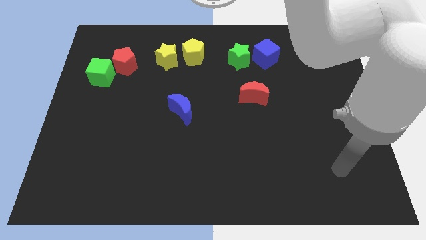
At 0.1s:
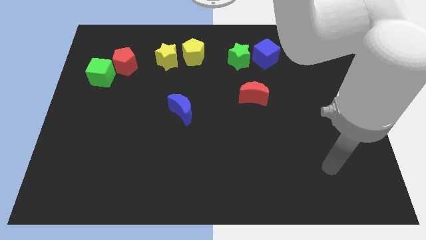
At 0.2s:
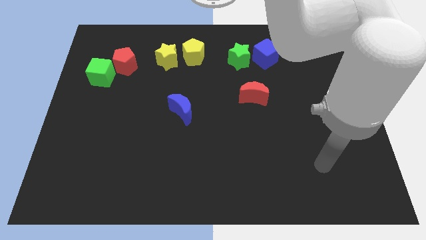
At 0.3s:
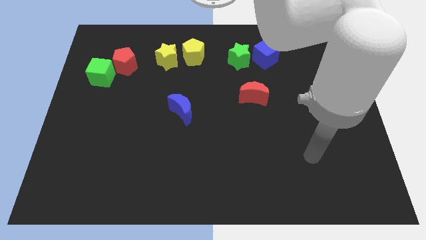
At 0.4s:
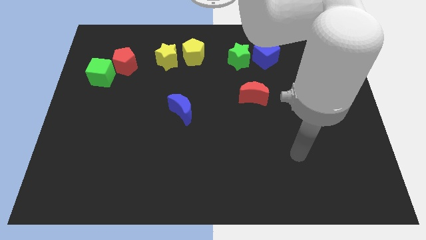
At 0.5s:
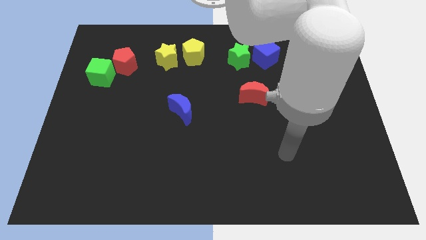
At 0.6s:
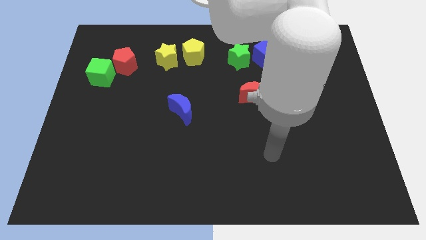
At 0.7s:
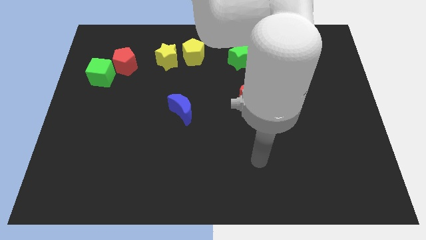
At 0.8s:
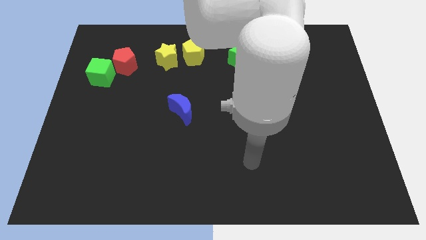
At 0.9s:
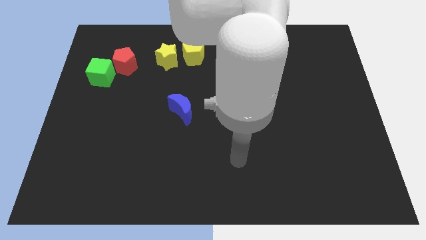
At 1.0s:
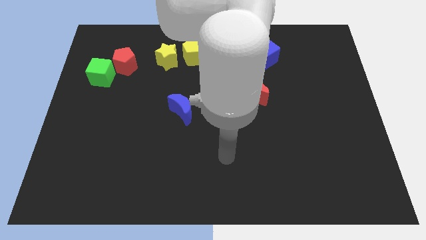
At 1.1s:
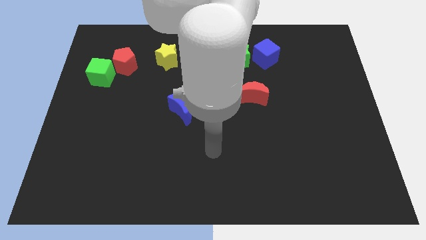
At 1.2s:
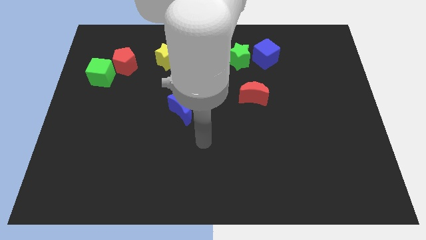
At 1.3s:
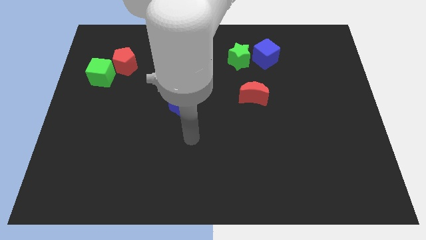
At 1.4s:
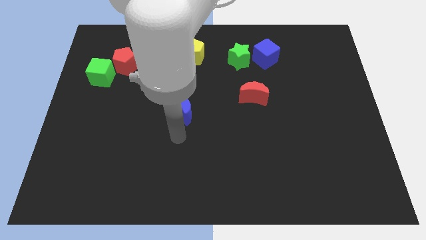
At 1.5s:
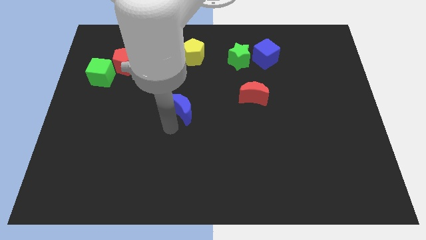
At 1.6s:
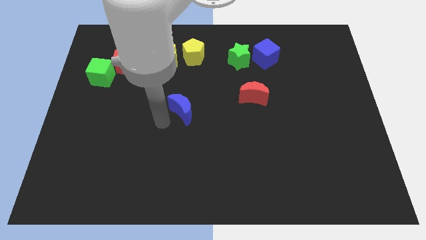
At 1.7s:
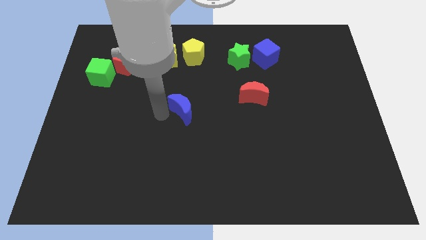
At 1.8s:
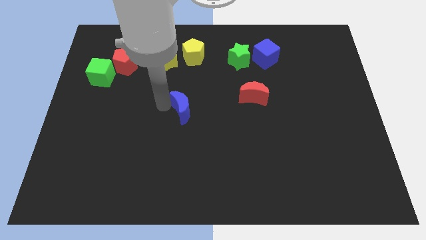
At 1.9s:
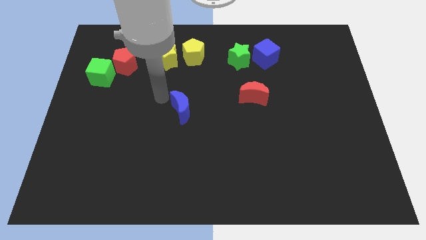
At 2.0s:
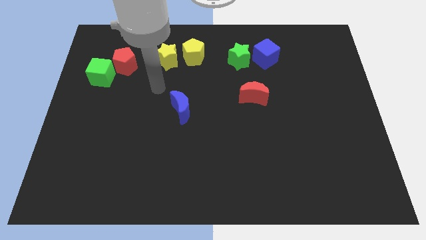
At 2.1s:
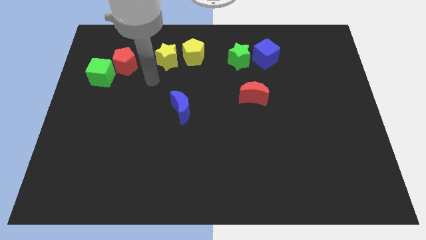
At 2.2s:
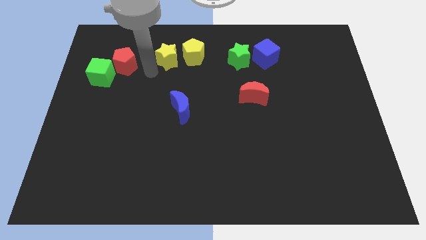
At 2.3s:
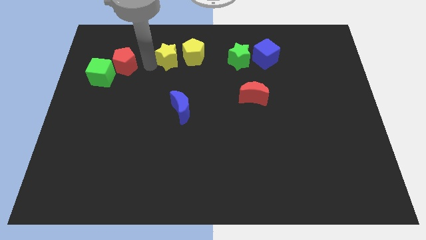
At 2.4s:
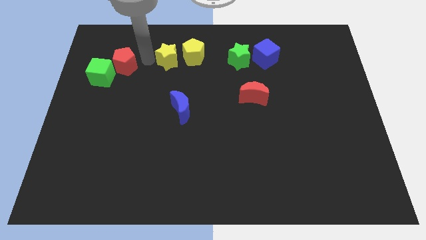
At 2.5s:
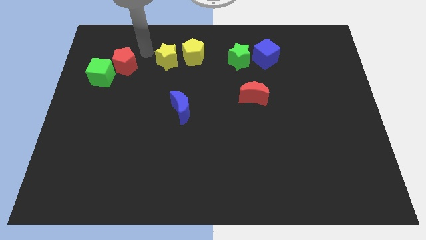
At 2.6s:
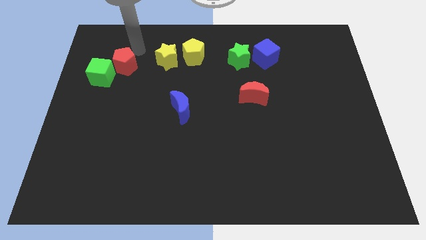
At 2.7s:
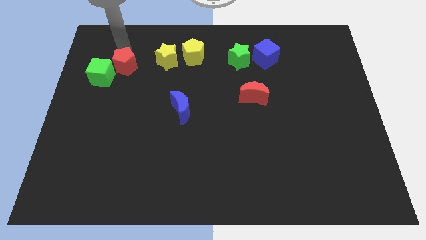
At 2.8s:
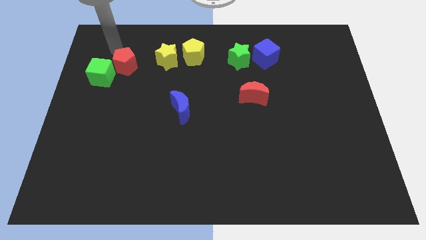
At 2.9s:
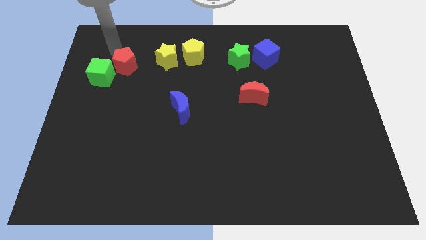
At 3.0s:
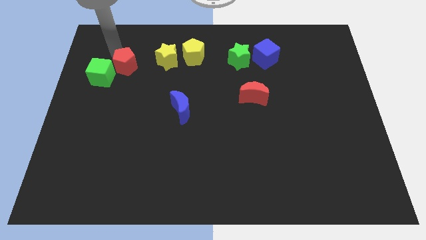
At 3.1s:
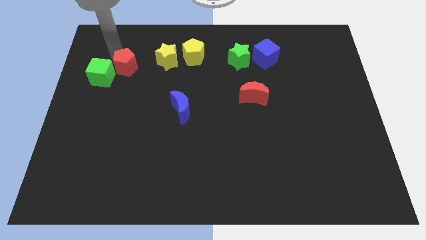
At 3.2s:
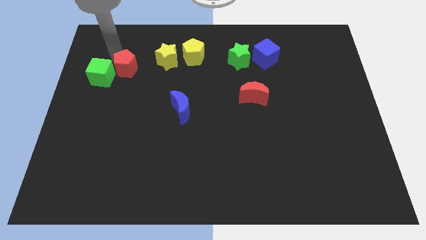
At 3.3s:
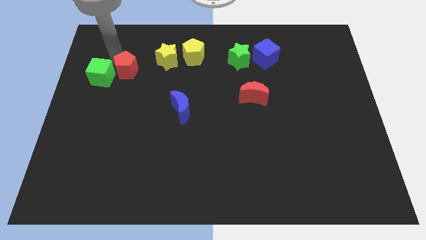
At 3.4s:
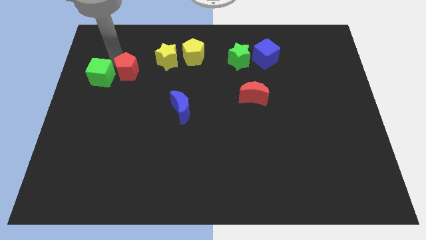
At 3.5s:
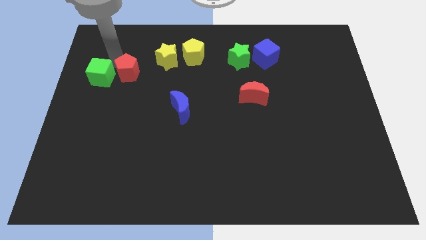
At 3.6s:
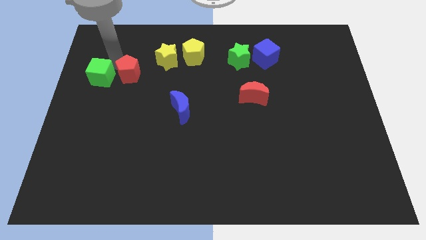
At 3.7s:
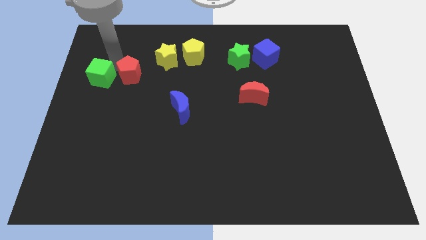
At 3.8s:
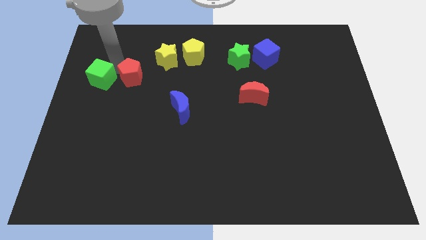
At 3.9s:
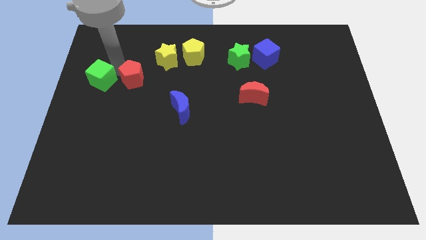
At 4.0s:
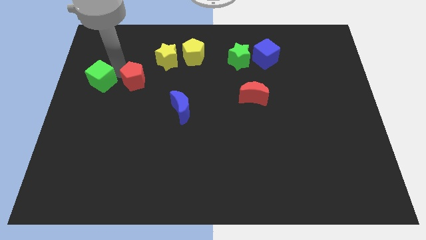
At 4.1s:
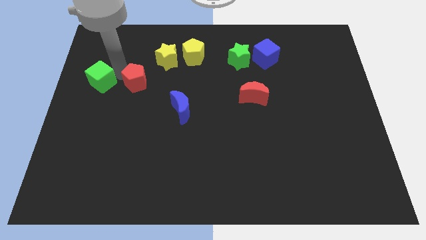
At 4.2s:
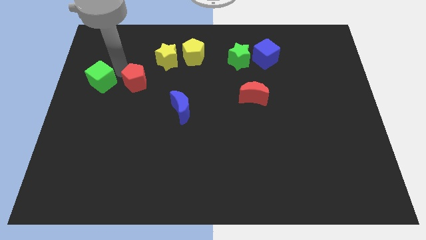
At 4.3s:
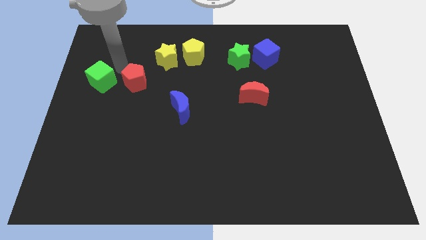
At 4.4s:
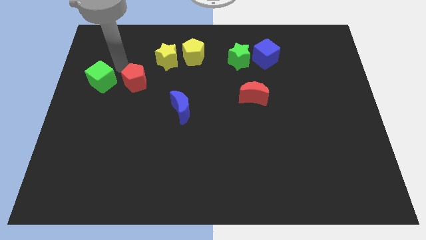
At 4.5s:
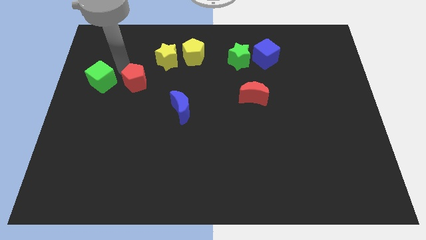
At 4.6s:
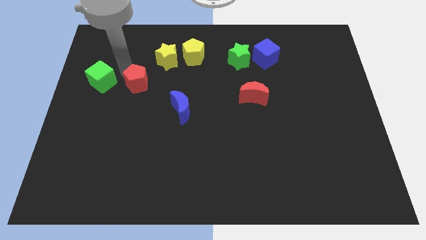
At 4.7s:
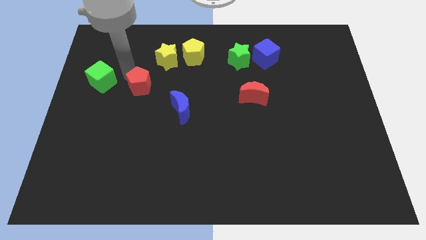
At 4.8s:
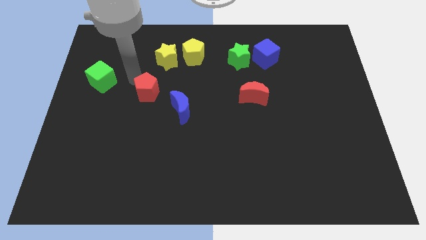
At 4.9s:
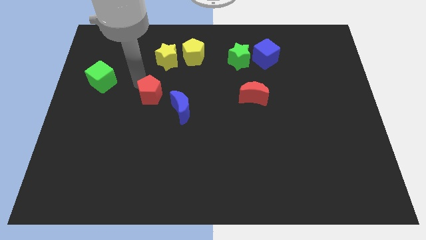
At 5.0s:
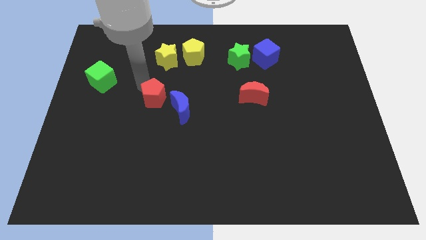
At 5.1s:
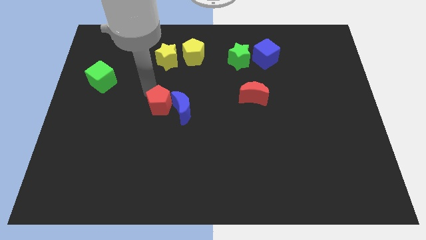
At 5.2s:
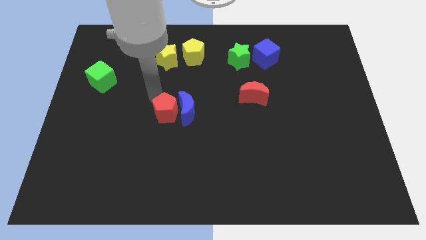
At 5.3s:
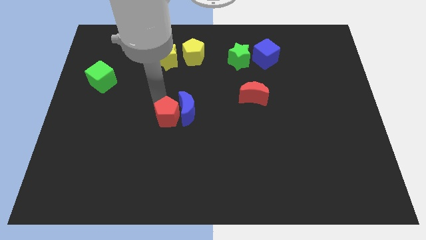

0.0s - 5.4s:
move the red pentagon down and to the right

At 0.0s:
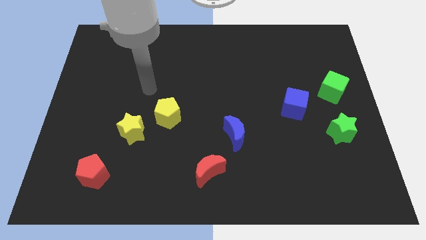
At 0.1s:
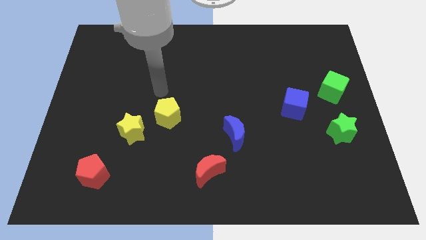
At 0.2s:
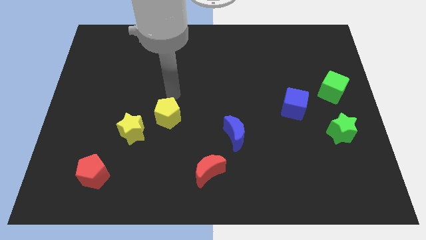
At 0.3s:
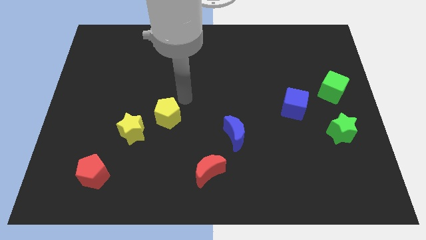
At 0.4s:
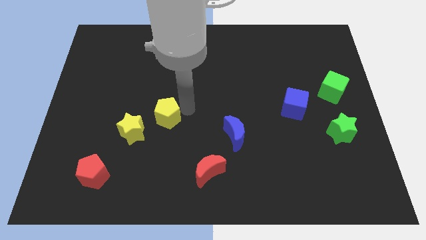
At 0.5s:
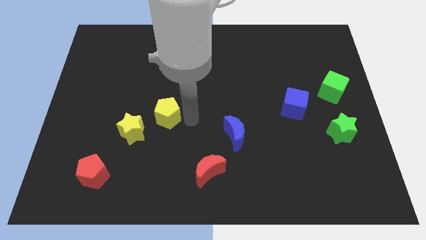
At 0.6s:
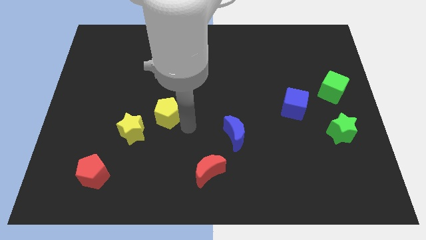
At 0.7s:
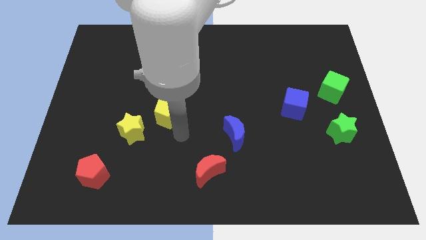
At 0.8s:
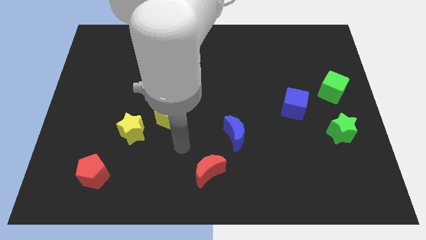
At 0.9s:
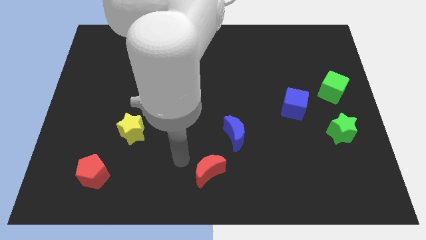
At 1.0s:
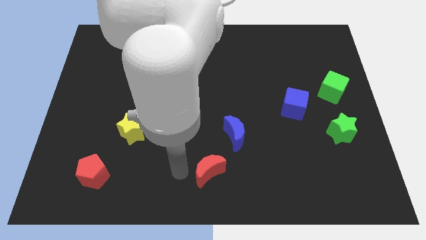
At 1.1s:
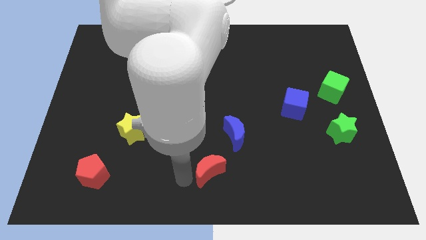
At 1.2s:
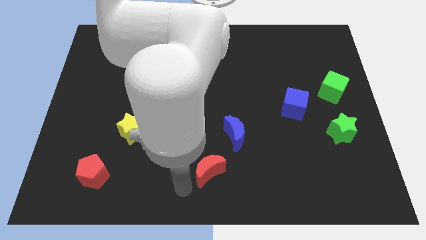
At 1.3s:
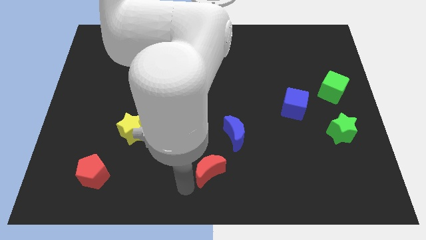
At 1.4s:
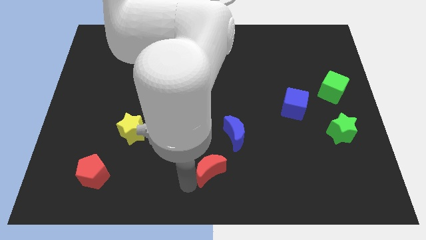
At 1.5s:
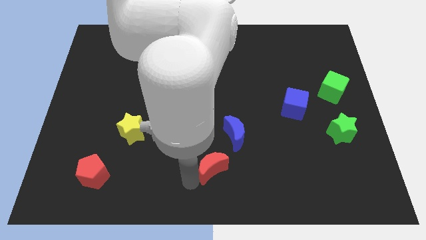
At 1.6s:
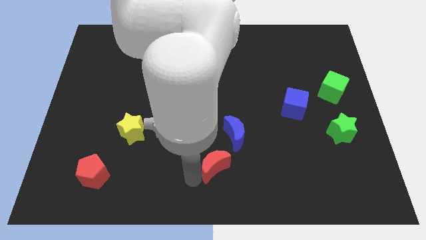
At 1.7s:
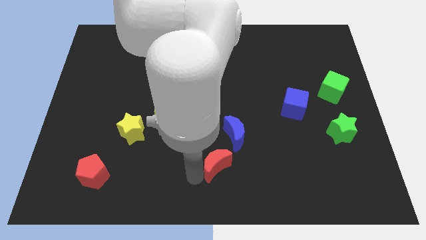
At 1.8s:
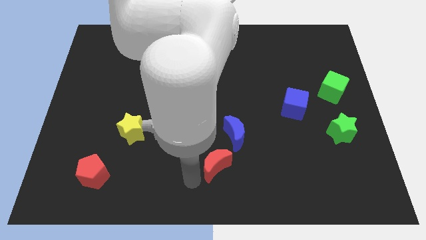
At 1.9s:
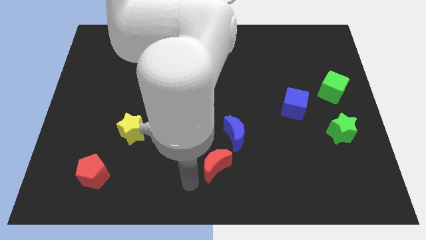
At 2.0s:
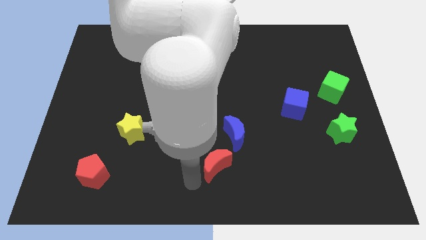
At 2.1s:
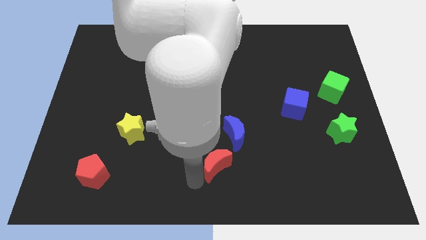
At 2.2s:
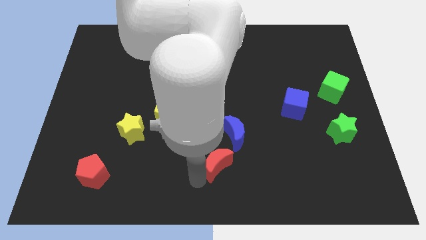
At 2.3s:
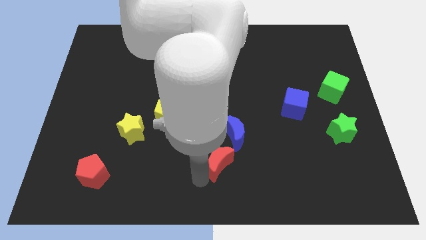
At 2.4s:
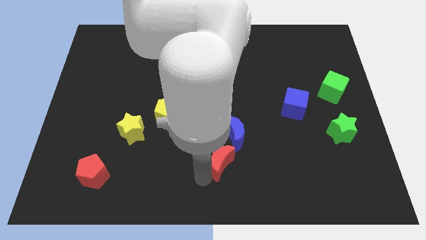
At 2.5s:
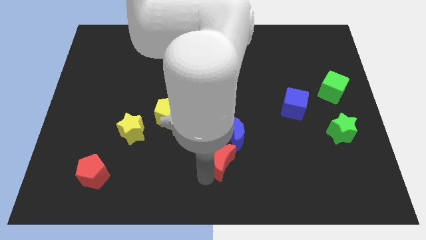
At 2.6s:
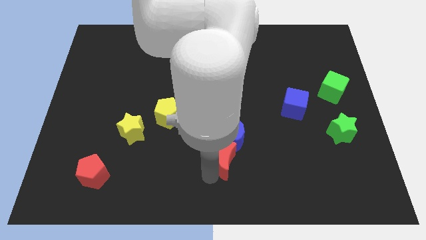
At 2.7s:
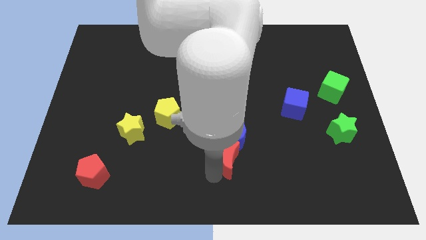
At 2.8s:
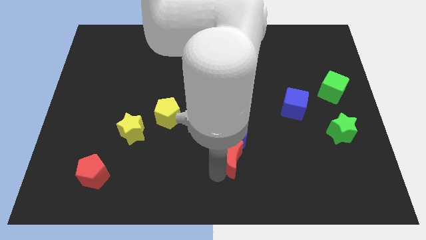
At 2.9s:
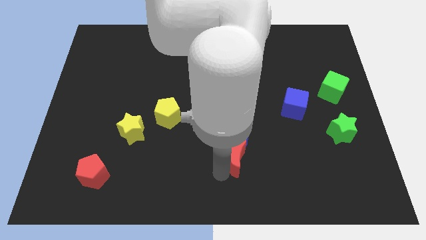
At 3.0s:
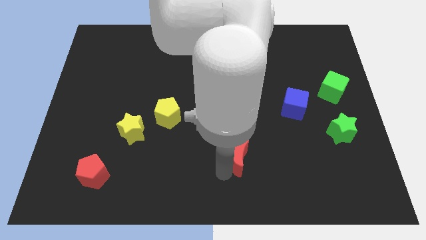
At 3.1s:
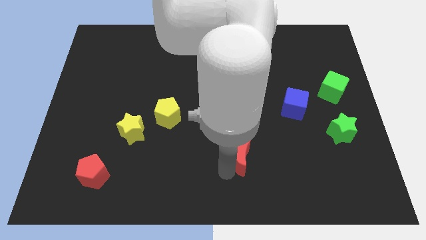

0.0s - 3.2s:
slightly move the red moon diagonally up and to the right
